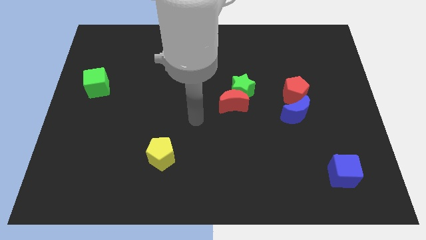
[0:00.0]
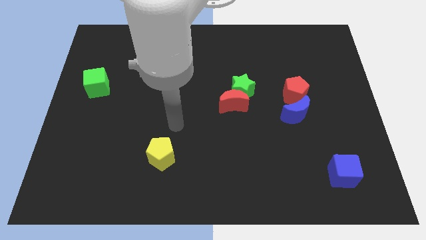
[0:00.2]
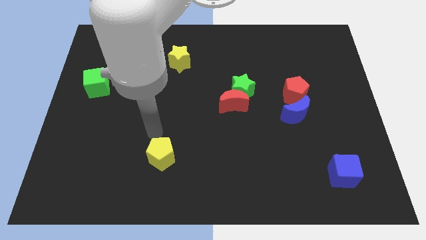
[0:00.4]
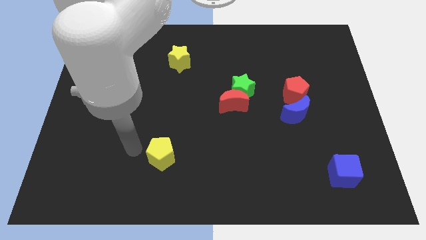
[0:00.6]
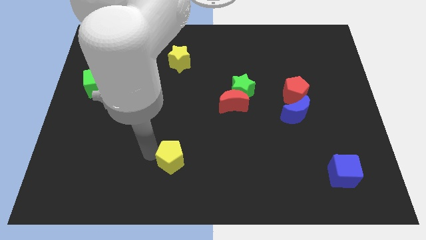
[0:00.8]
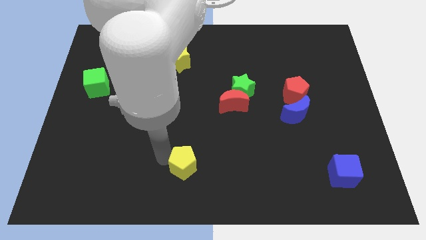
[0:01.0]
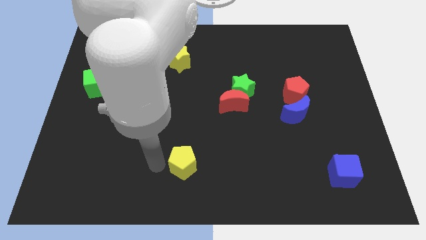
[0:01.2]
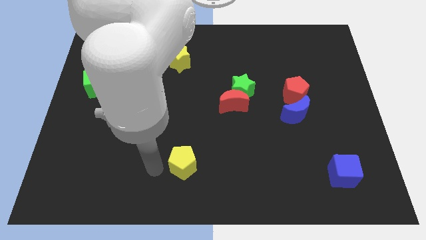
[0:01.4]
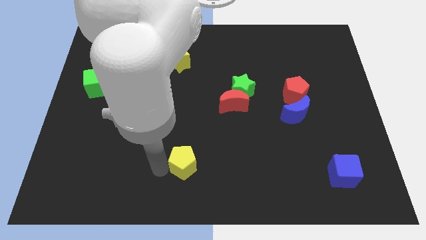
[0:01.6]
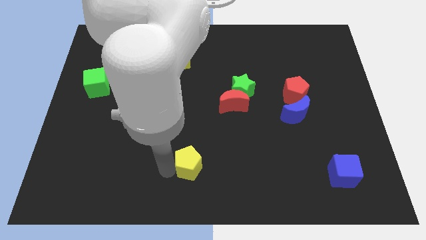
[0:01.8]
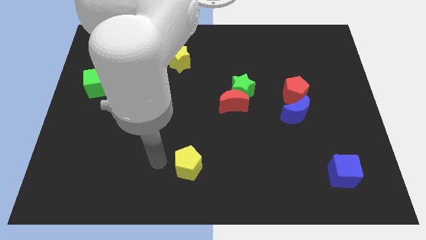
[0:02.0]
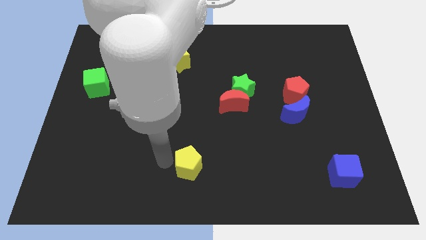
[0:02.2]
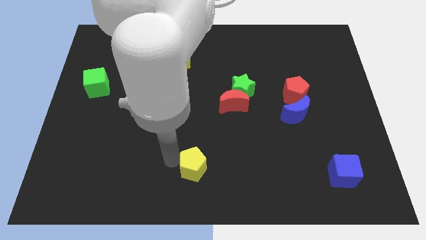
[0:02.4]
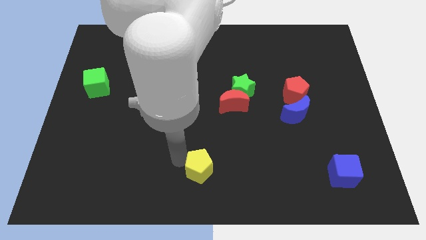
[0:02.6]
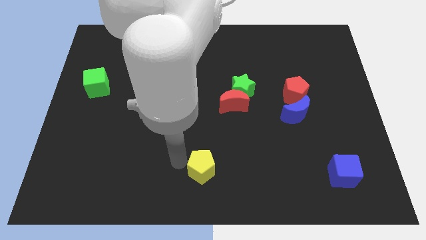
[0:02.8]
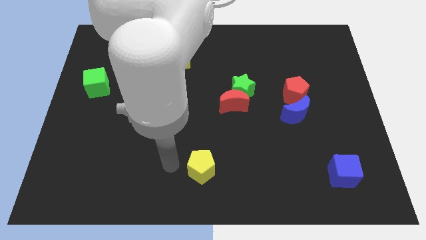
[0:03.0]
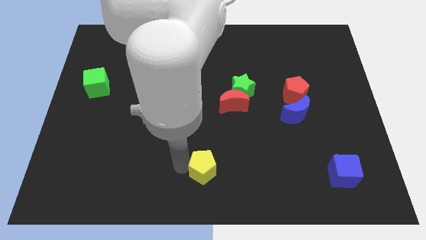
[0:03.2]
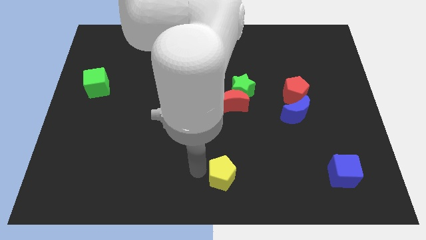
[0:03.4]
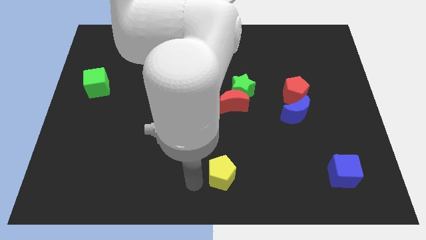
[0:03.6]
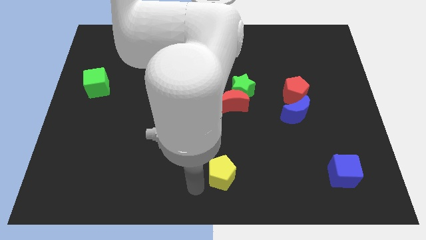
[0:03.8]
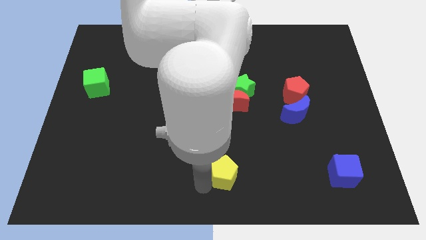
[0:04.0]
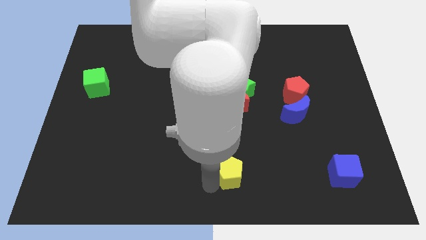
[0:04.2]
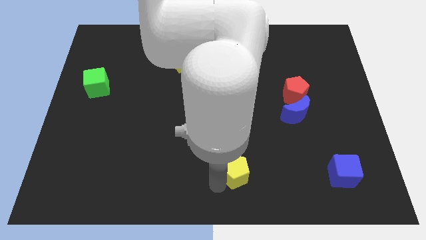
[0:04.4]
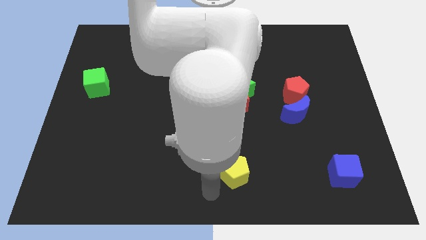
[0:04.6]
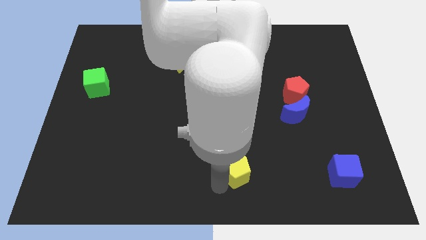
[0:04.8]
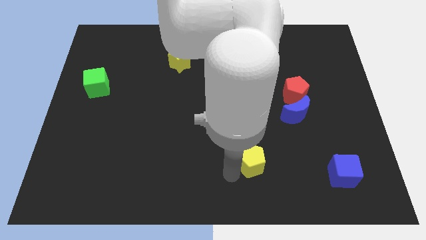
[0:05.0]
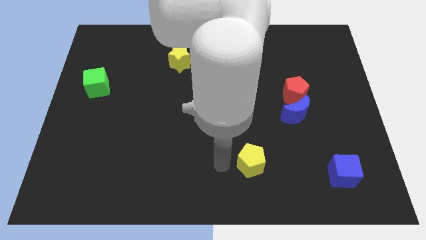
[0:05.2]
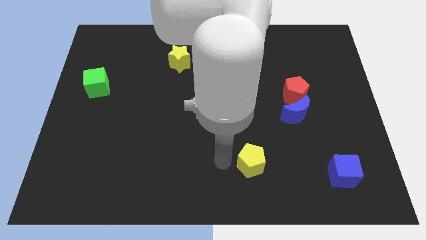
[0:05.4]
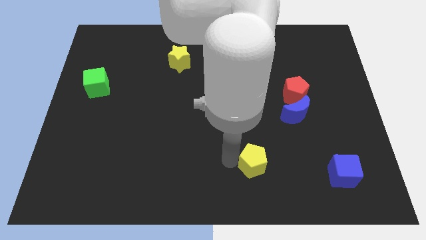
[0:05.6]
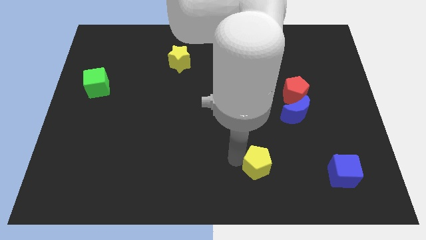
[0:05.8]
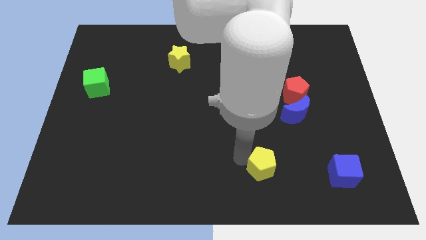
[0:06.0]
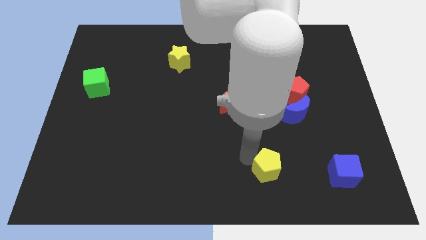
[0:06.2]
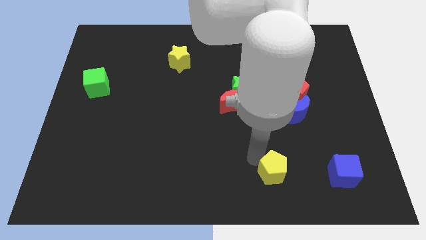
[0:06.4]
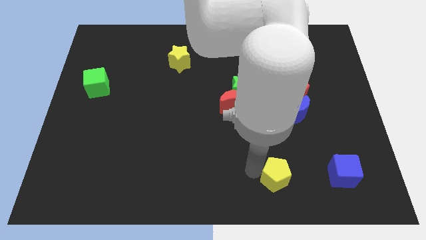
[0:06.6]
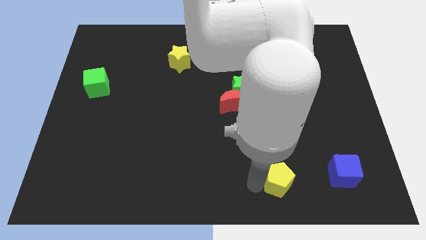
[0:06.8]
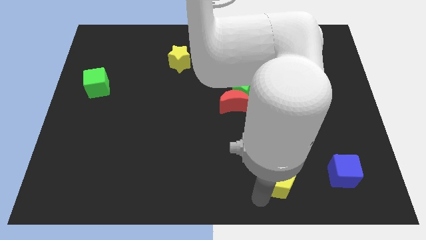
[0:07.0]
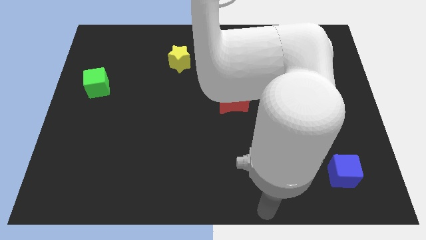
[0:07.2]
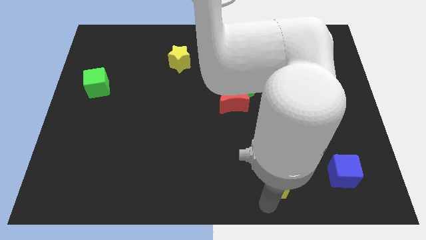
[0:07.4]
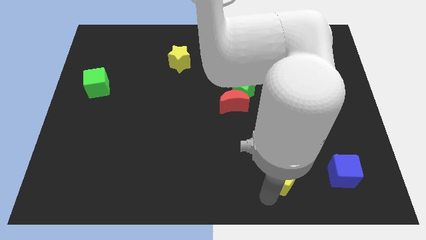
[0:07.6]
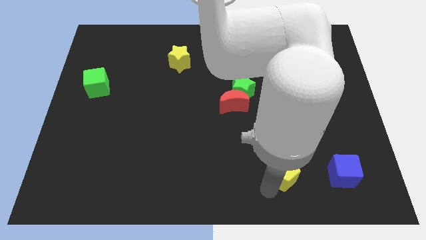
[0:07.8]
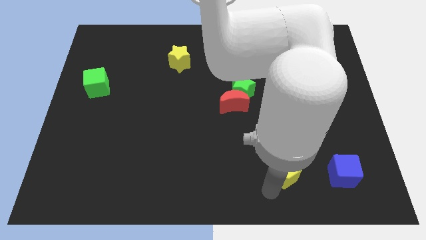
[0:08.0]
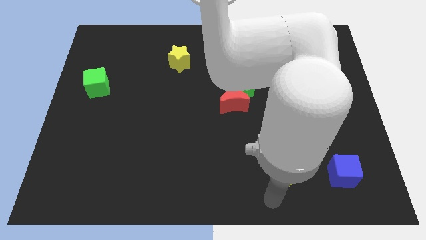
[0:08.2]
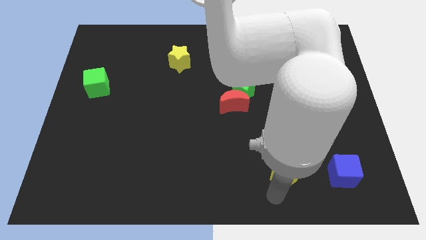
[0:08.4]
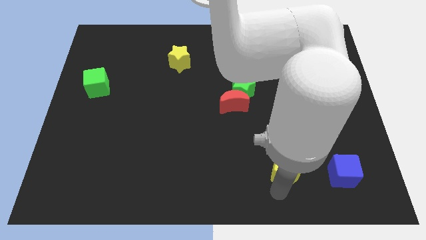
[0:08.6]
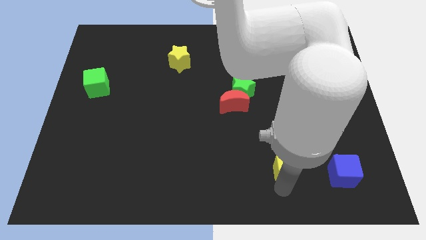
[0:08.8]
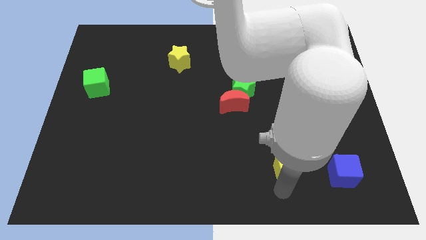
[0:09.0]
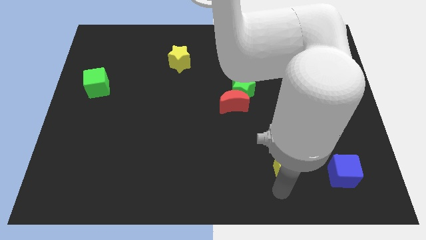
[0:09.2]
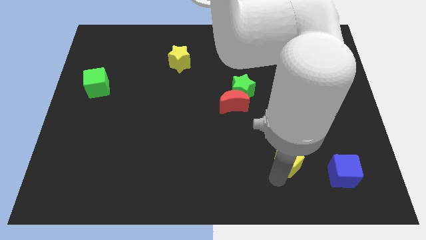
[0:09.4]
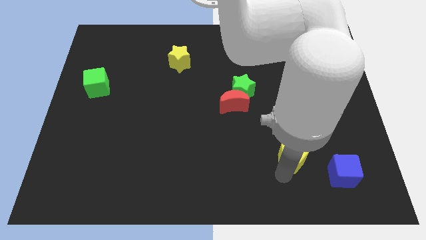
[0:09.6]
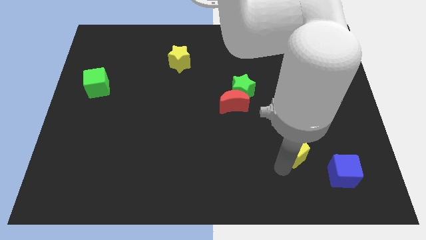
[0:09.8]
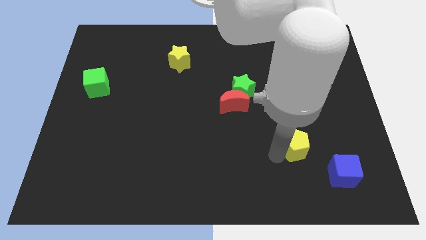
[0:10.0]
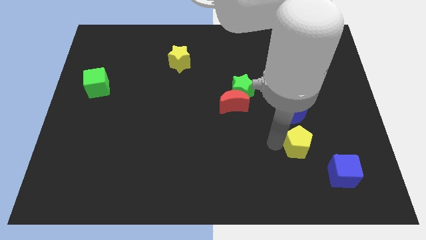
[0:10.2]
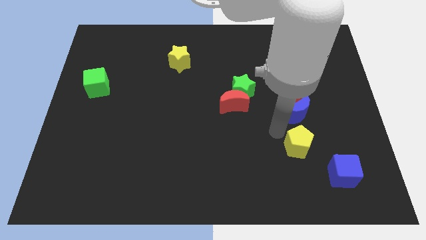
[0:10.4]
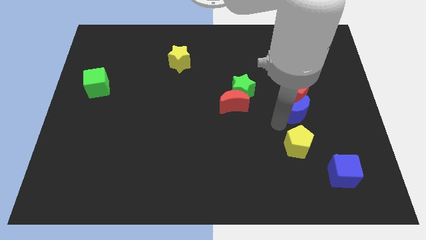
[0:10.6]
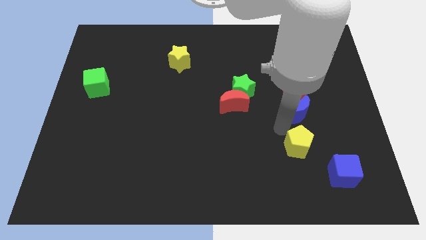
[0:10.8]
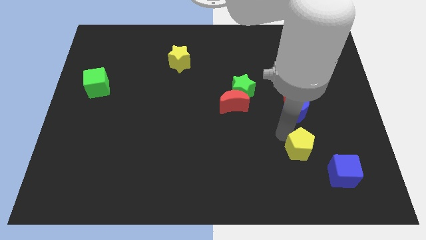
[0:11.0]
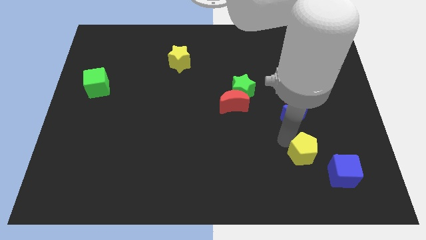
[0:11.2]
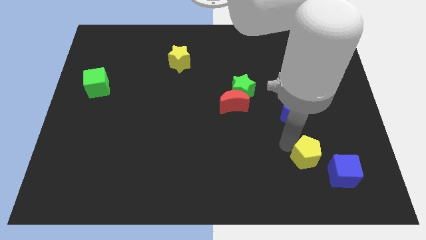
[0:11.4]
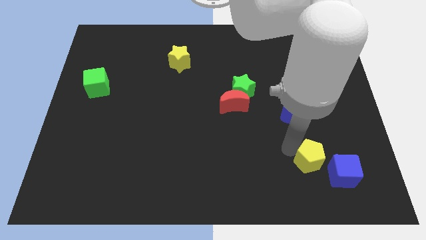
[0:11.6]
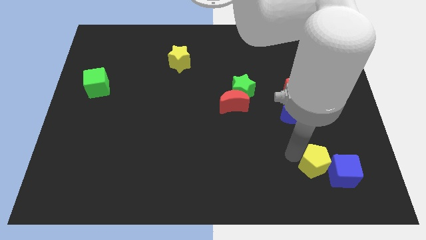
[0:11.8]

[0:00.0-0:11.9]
slide the yellow pentagon next to the blue cube

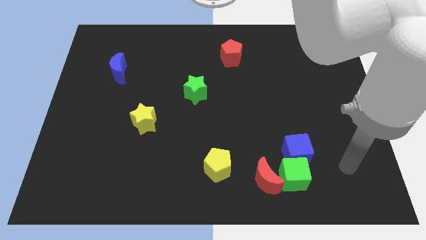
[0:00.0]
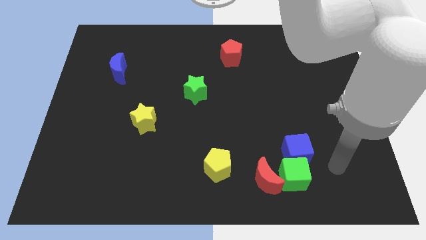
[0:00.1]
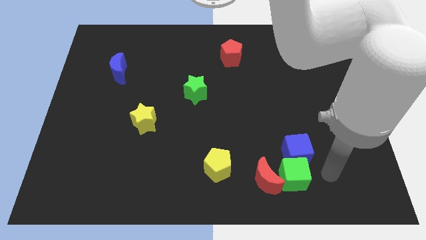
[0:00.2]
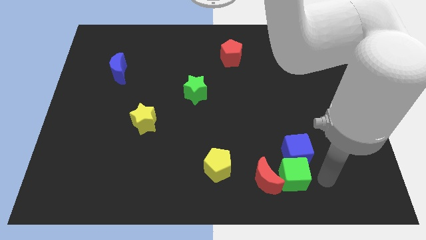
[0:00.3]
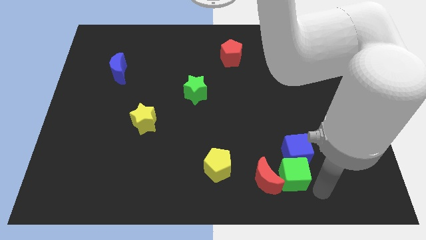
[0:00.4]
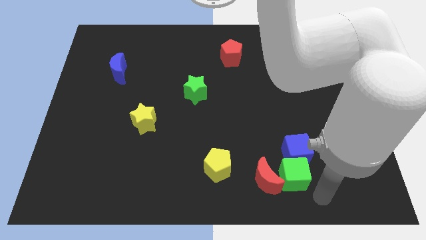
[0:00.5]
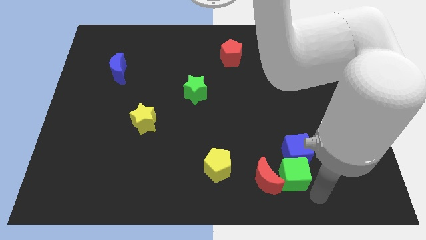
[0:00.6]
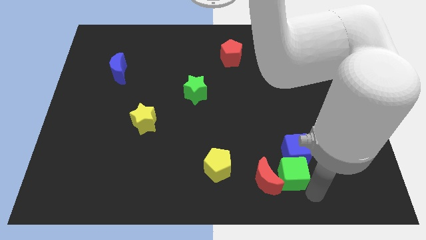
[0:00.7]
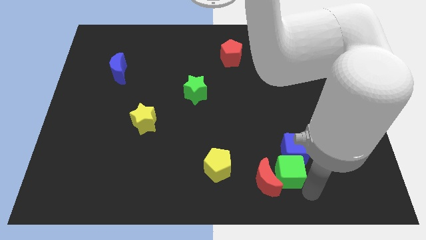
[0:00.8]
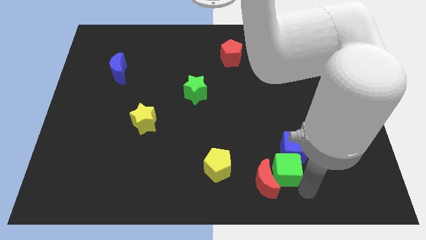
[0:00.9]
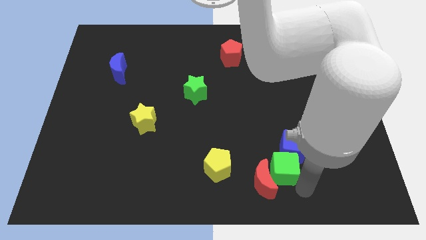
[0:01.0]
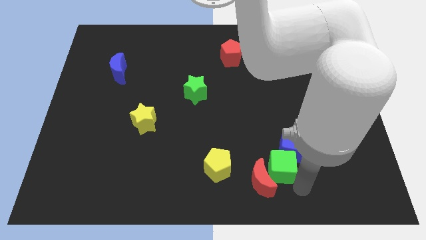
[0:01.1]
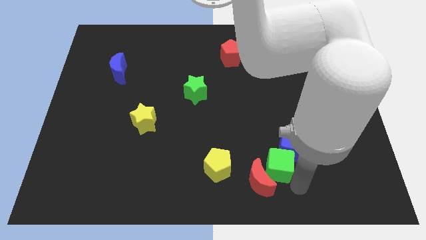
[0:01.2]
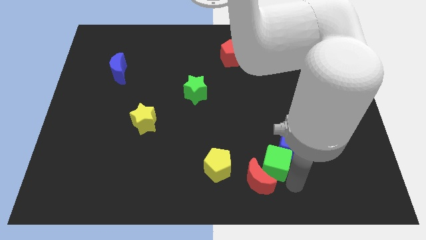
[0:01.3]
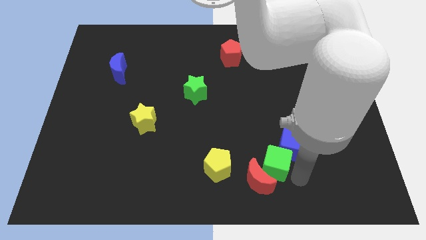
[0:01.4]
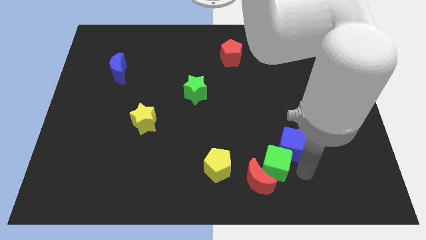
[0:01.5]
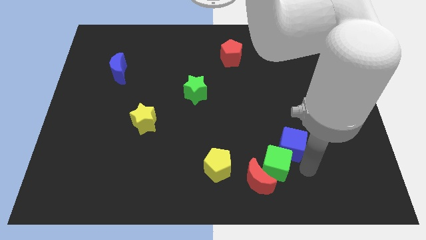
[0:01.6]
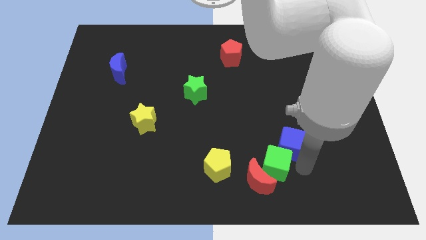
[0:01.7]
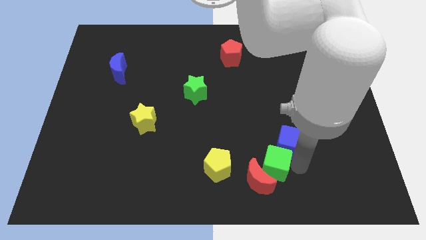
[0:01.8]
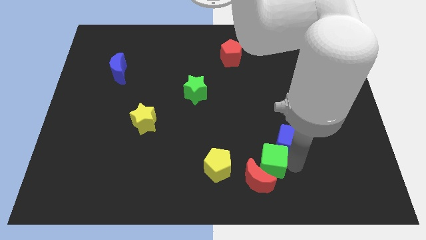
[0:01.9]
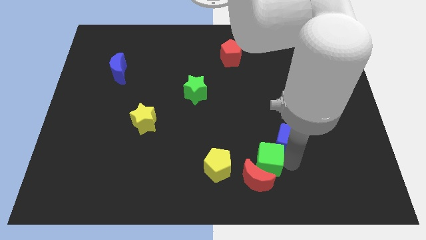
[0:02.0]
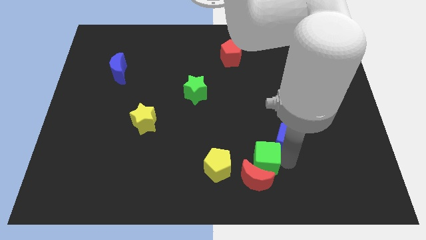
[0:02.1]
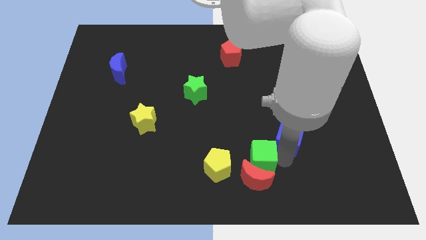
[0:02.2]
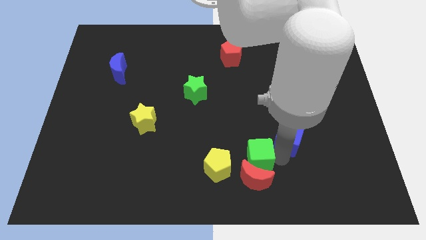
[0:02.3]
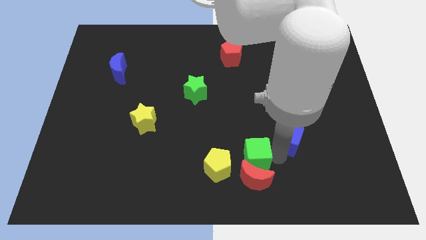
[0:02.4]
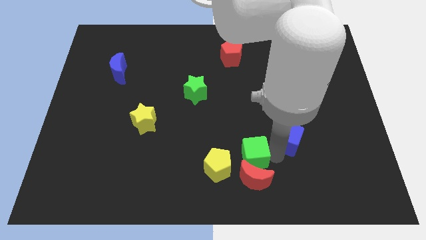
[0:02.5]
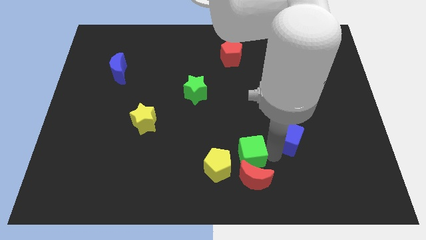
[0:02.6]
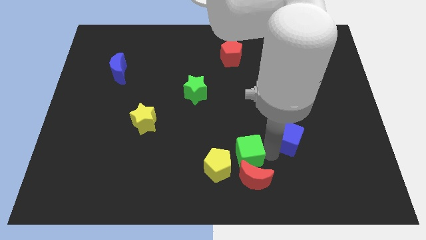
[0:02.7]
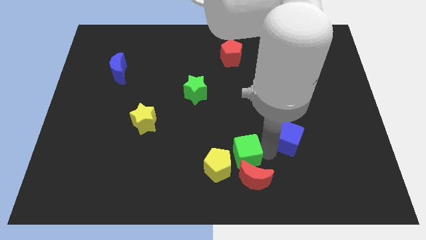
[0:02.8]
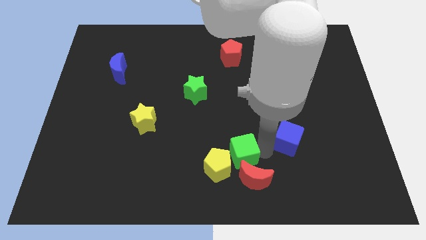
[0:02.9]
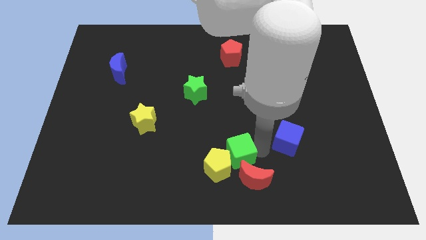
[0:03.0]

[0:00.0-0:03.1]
put the green cube towards the yellow pentagon
